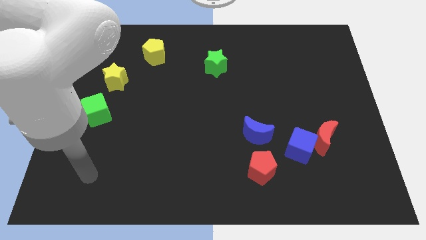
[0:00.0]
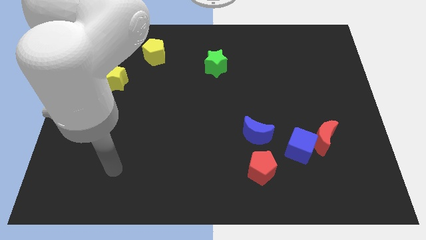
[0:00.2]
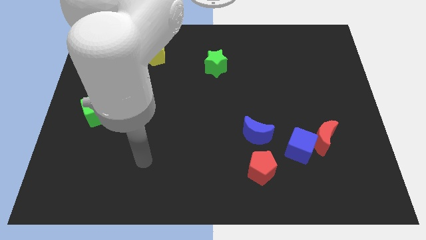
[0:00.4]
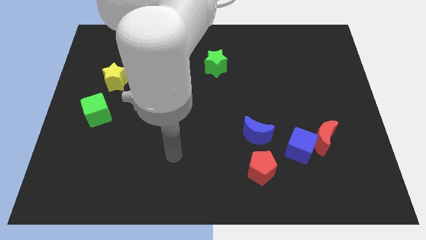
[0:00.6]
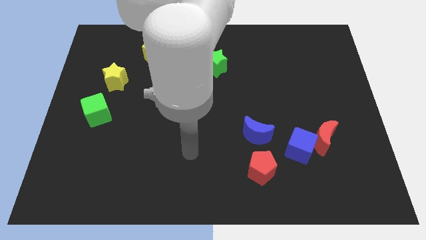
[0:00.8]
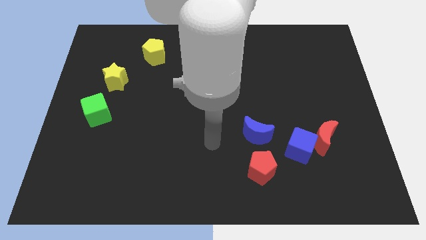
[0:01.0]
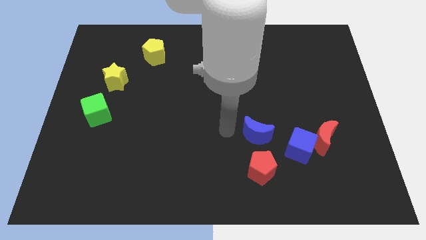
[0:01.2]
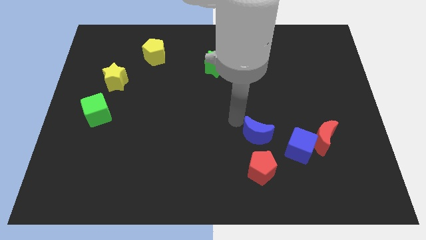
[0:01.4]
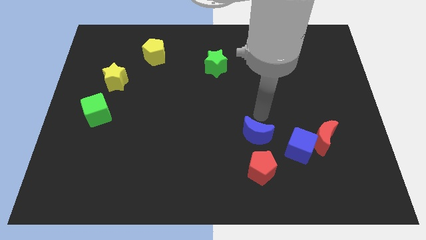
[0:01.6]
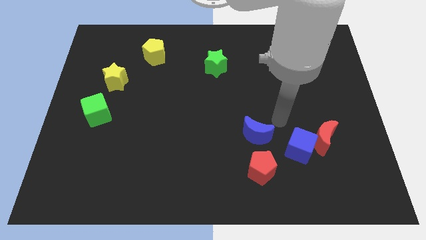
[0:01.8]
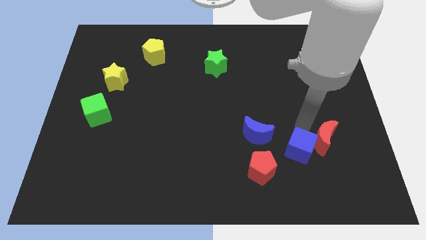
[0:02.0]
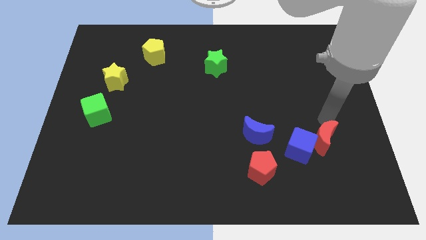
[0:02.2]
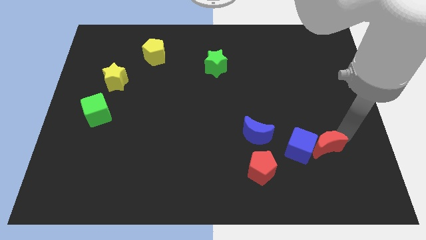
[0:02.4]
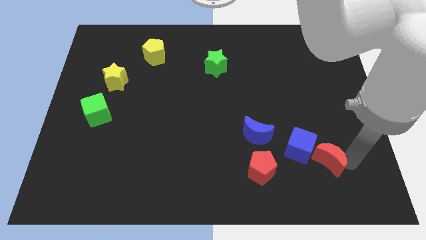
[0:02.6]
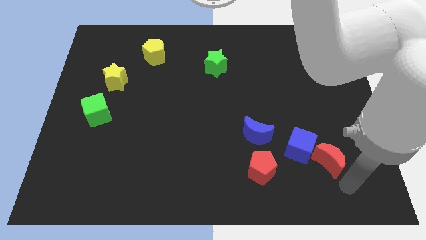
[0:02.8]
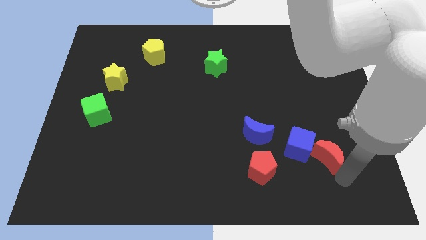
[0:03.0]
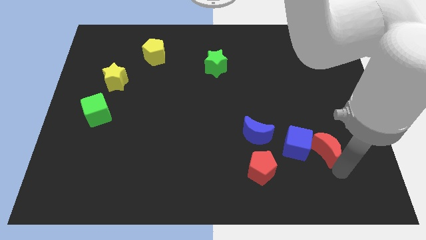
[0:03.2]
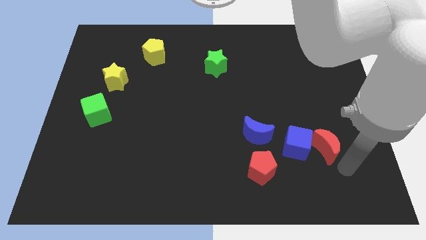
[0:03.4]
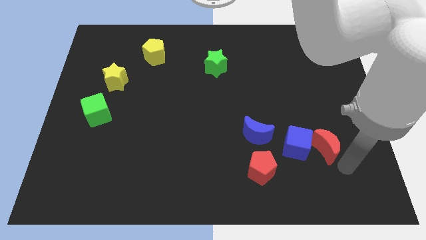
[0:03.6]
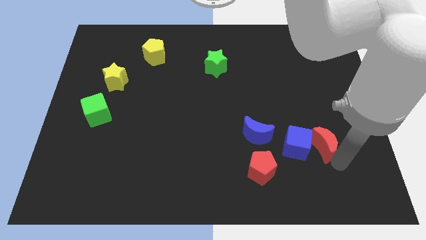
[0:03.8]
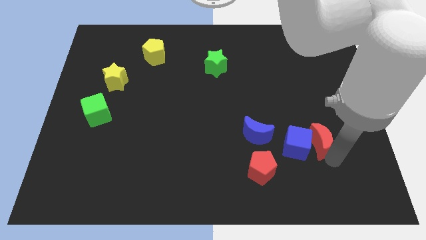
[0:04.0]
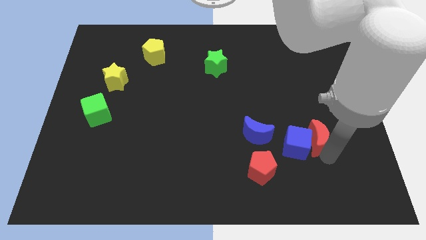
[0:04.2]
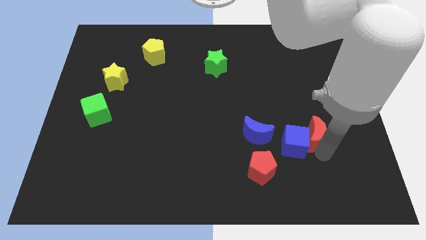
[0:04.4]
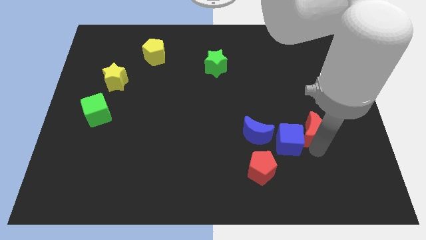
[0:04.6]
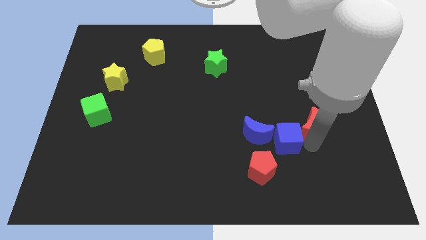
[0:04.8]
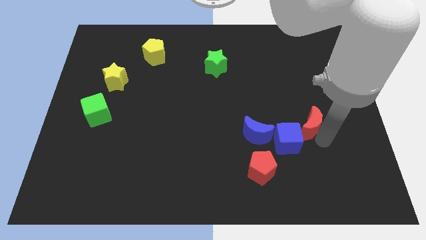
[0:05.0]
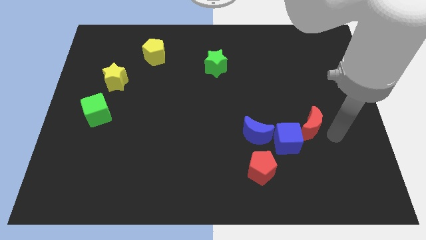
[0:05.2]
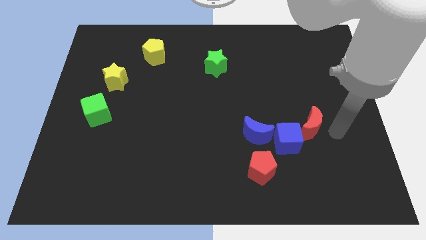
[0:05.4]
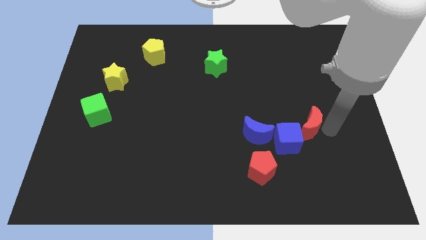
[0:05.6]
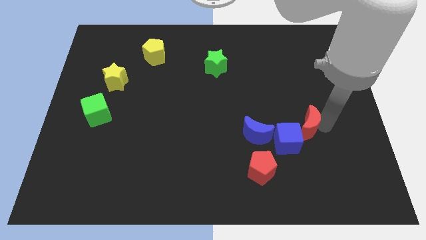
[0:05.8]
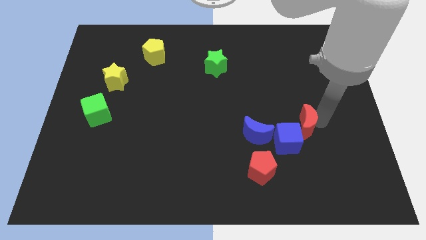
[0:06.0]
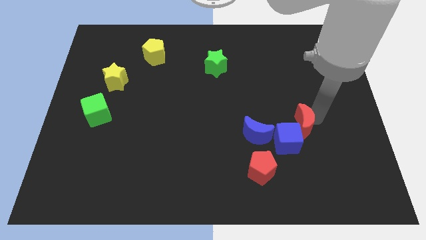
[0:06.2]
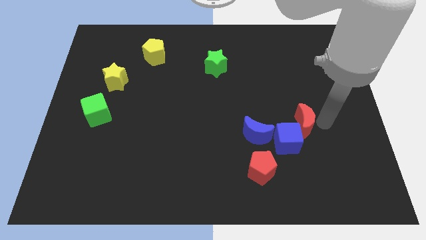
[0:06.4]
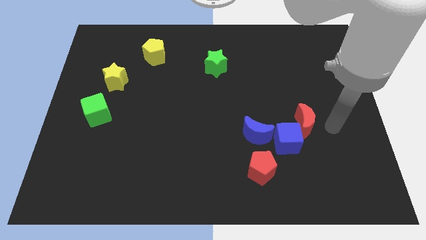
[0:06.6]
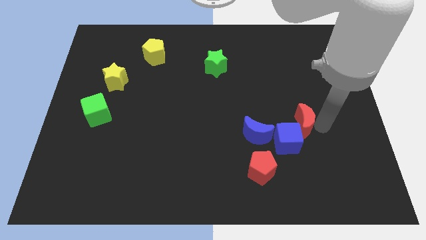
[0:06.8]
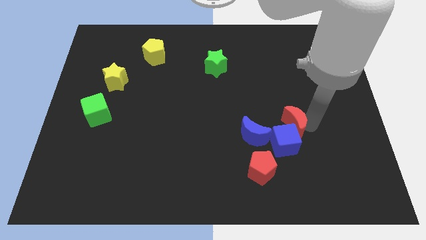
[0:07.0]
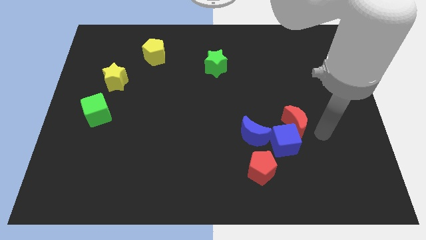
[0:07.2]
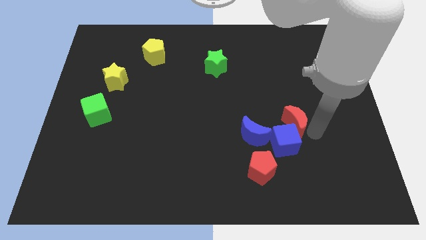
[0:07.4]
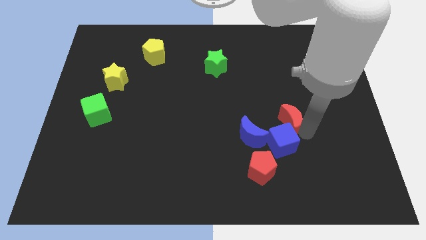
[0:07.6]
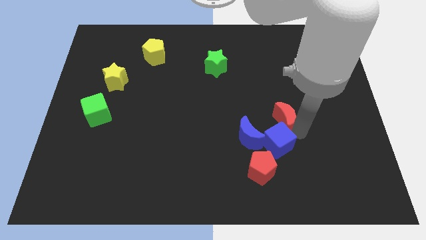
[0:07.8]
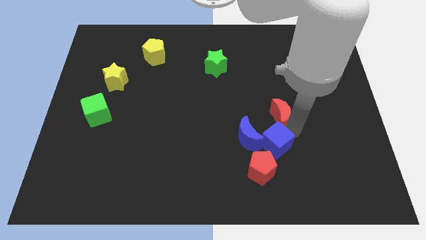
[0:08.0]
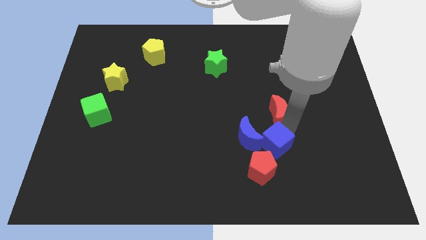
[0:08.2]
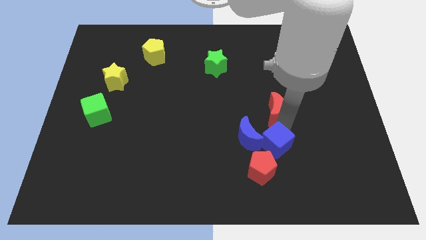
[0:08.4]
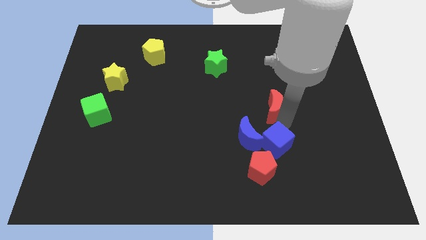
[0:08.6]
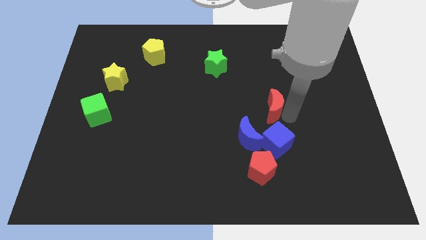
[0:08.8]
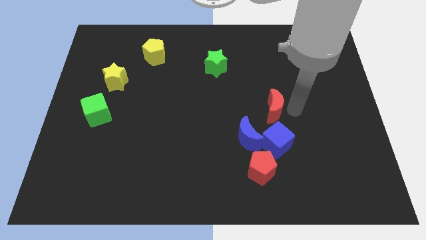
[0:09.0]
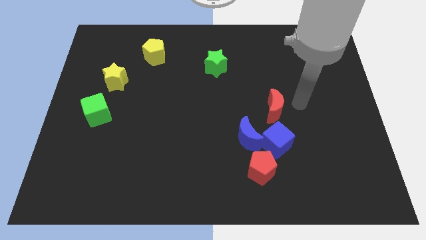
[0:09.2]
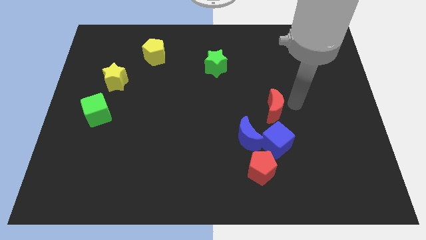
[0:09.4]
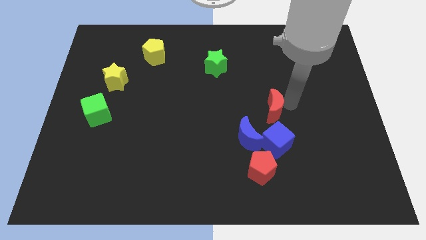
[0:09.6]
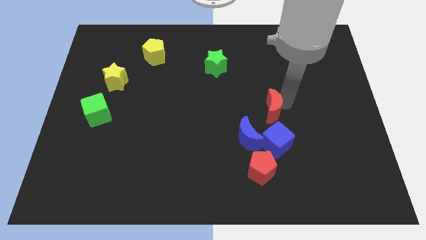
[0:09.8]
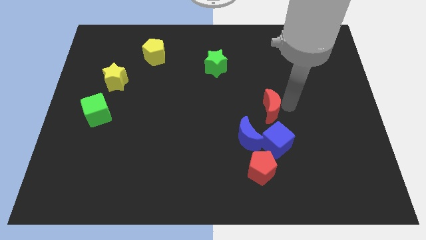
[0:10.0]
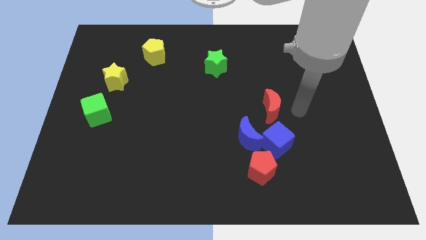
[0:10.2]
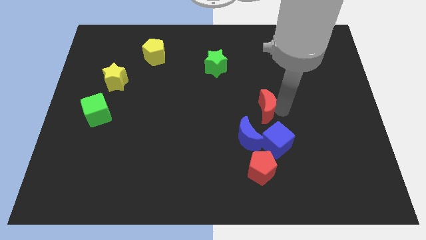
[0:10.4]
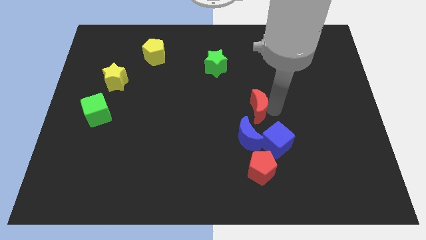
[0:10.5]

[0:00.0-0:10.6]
move the red moon to the center
